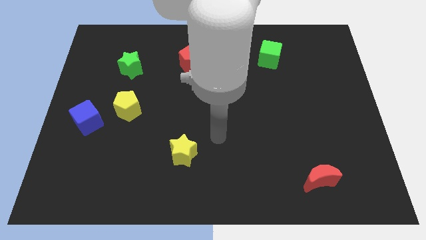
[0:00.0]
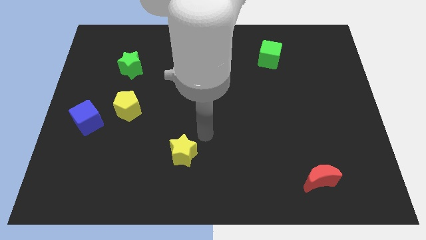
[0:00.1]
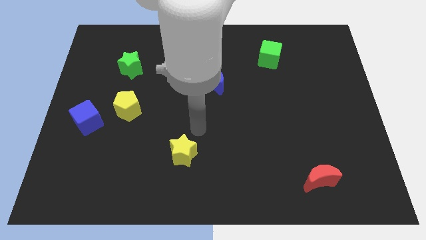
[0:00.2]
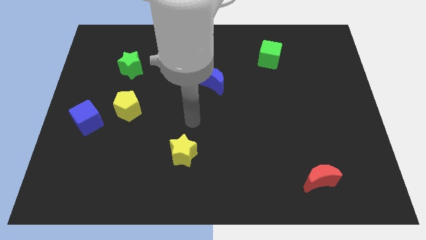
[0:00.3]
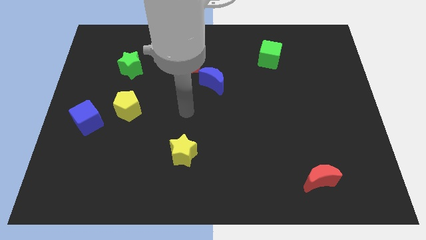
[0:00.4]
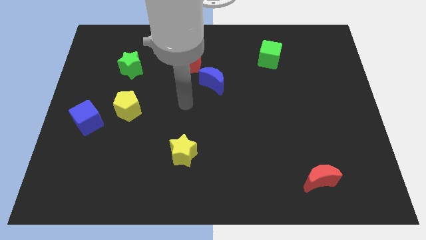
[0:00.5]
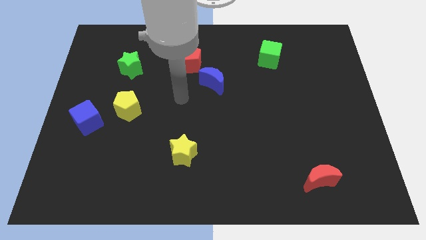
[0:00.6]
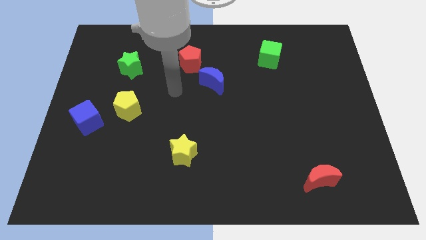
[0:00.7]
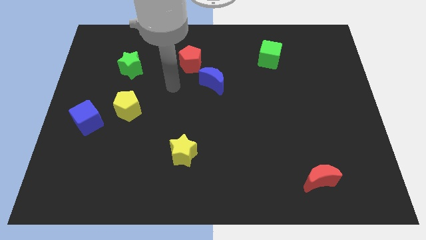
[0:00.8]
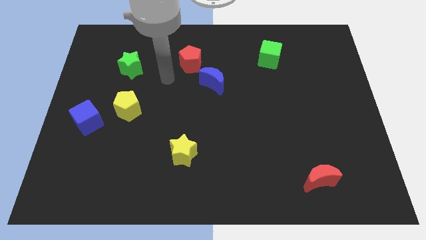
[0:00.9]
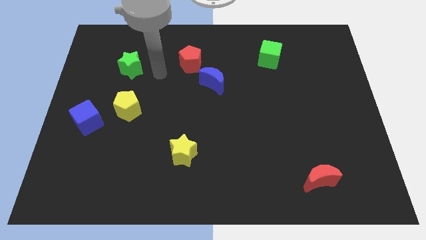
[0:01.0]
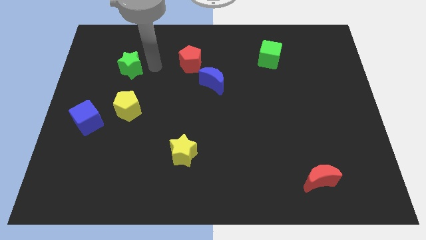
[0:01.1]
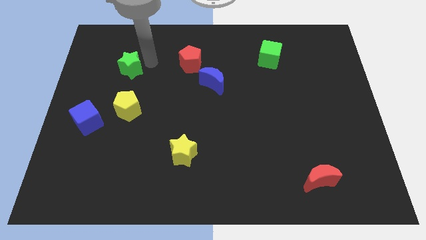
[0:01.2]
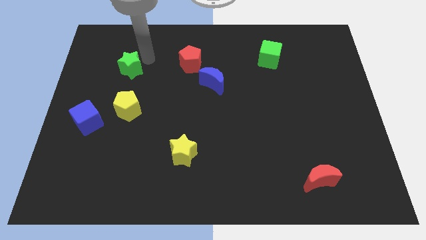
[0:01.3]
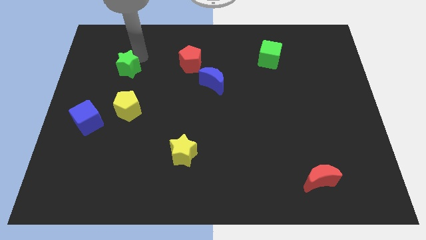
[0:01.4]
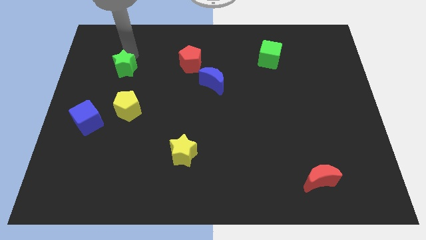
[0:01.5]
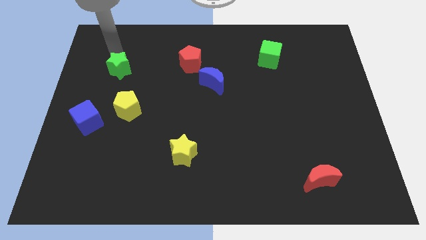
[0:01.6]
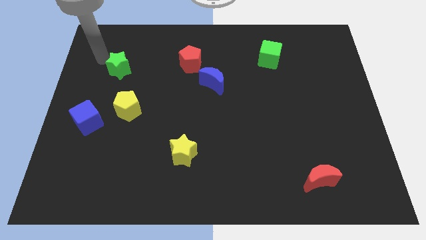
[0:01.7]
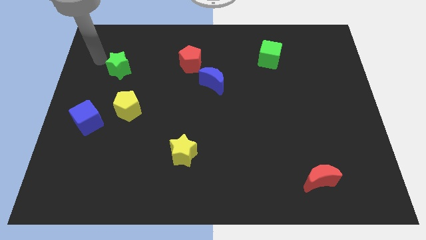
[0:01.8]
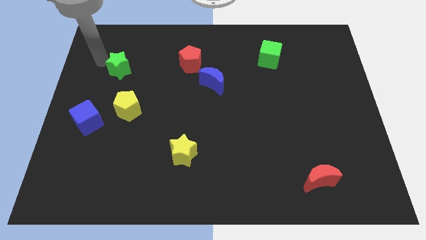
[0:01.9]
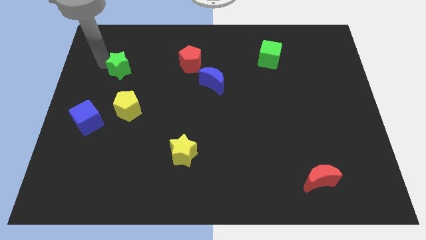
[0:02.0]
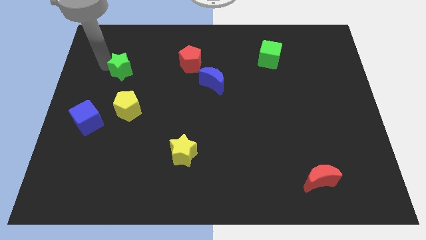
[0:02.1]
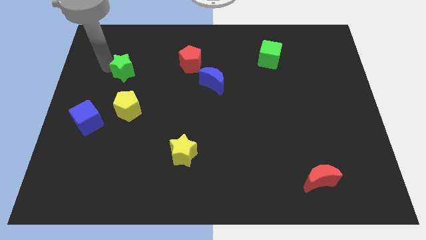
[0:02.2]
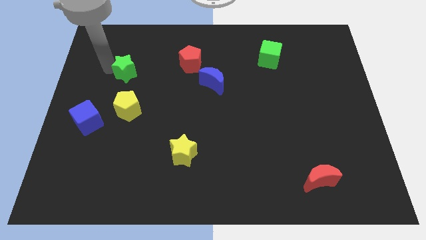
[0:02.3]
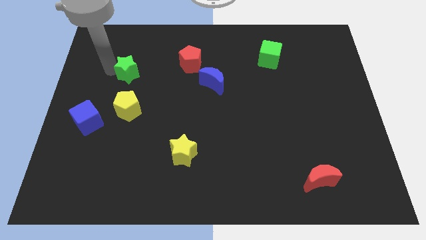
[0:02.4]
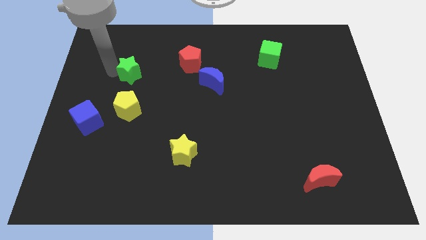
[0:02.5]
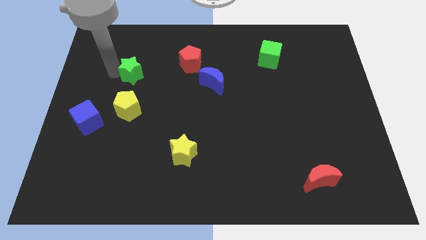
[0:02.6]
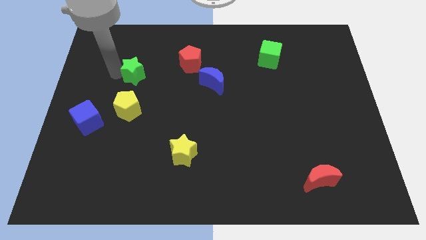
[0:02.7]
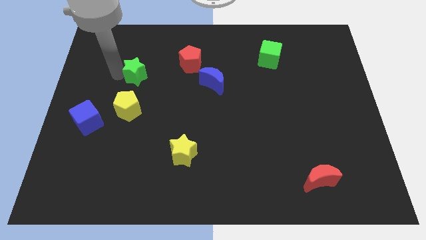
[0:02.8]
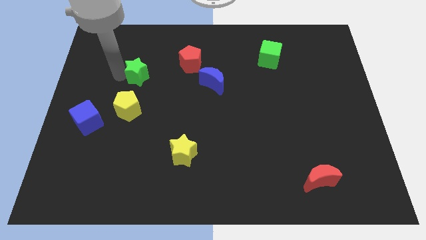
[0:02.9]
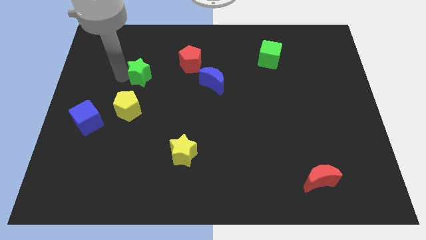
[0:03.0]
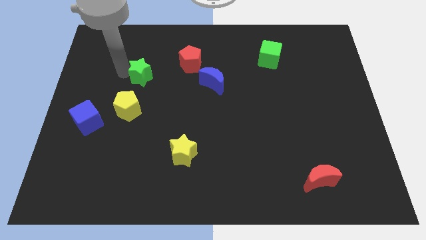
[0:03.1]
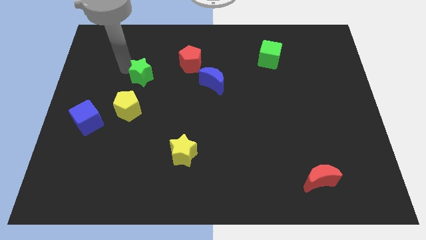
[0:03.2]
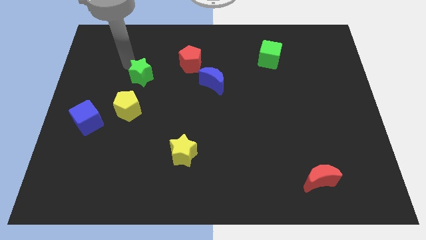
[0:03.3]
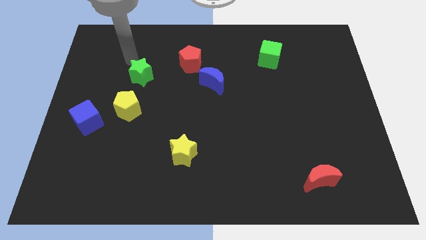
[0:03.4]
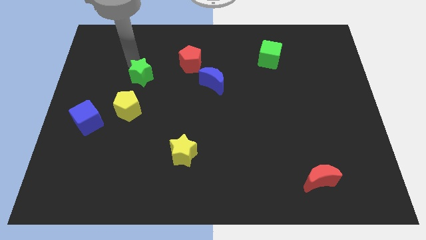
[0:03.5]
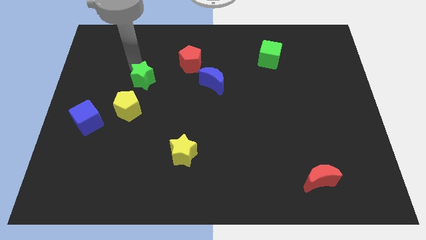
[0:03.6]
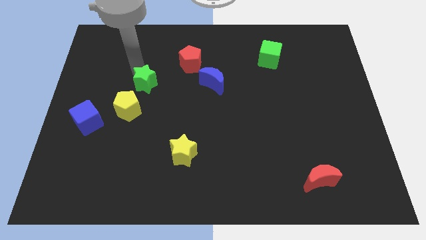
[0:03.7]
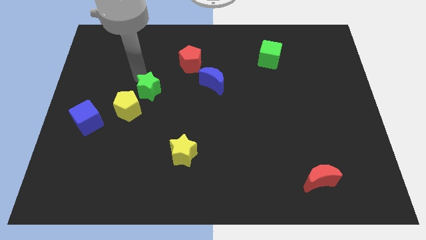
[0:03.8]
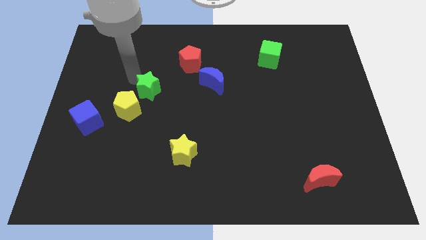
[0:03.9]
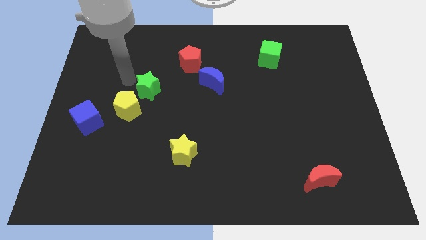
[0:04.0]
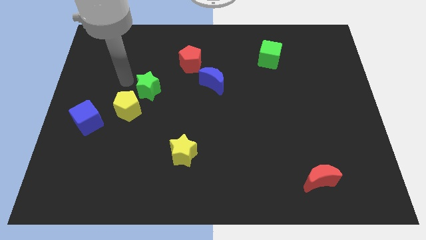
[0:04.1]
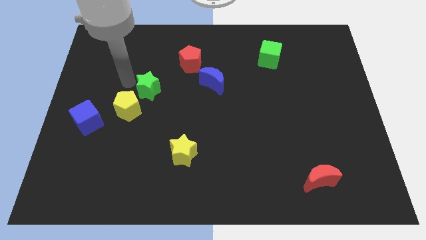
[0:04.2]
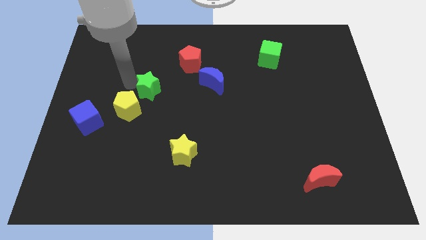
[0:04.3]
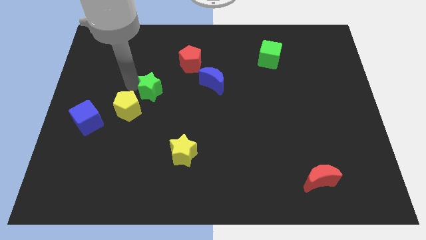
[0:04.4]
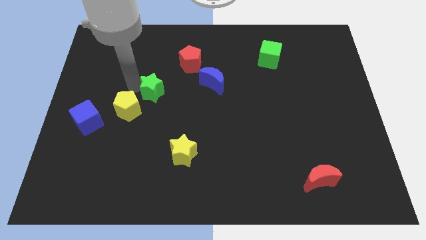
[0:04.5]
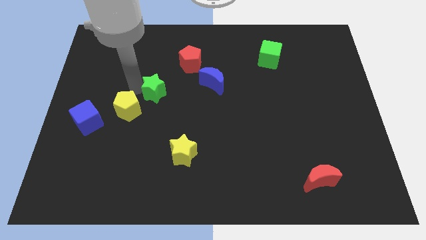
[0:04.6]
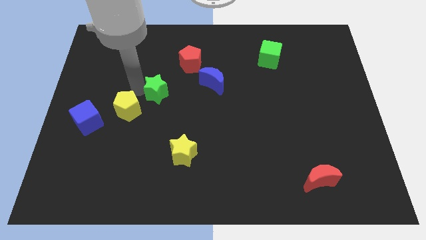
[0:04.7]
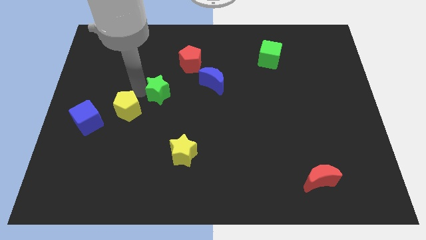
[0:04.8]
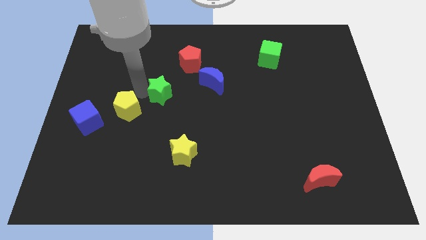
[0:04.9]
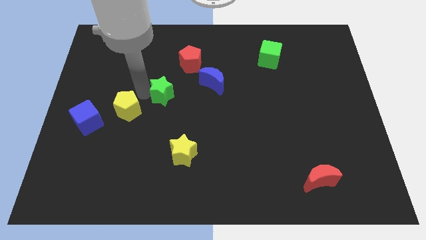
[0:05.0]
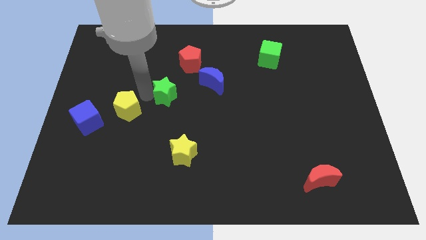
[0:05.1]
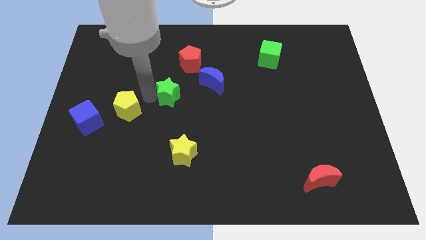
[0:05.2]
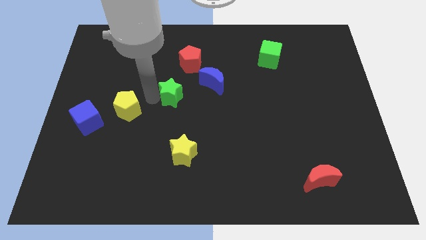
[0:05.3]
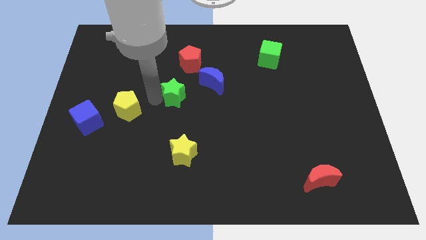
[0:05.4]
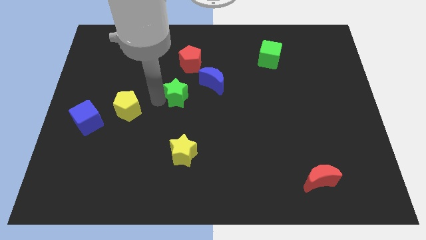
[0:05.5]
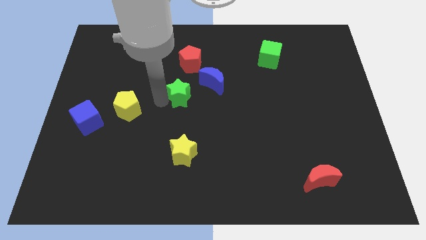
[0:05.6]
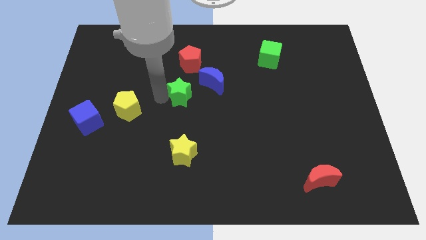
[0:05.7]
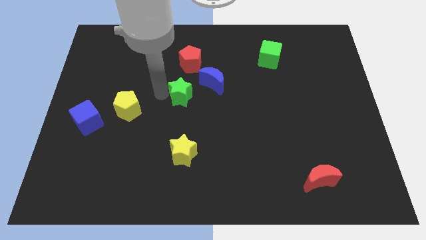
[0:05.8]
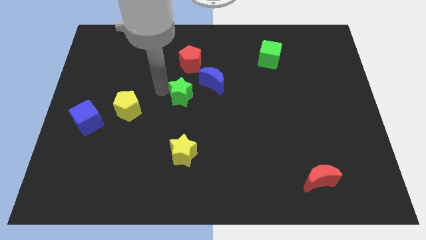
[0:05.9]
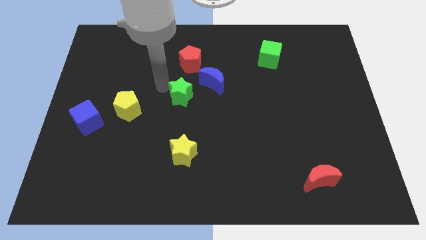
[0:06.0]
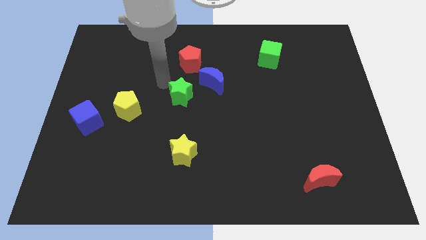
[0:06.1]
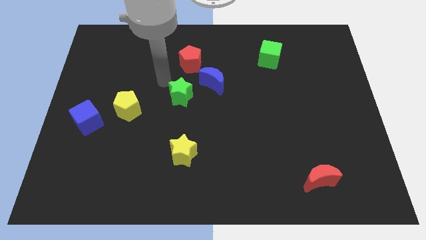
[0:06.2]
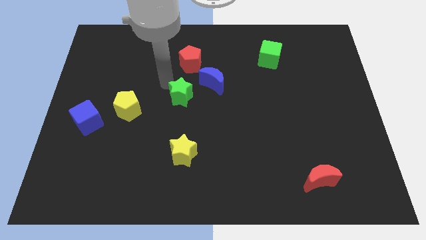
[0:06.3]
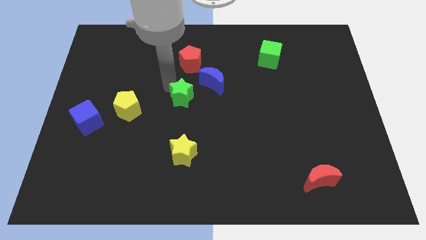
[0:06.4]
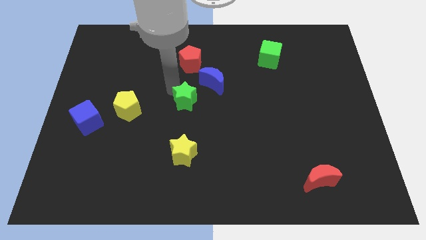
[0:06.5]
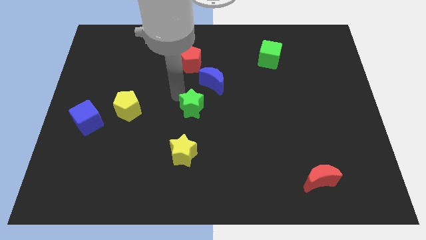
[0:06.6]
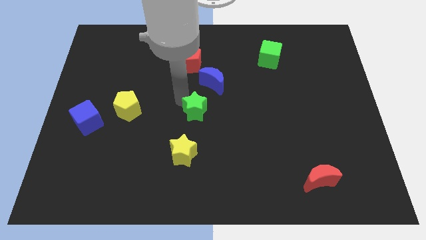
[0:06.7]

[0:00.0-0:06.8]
push the green star to the bottom of the blue moon

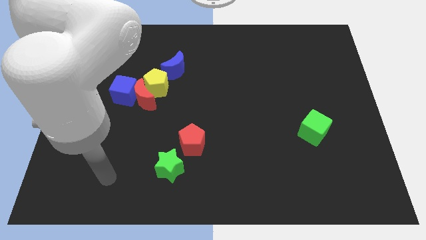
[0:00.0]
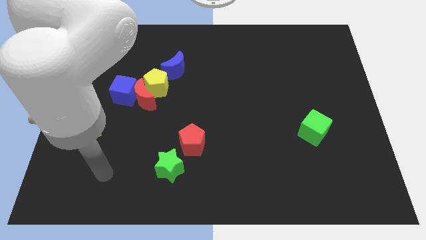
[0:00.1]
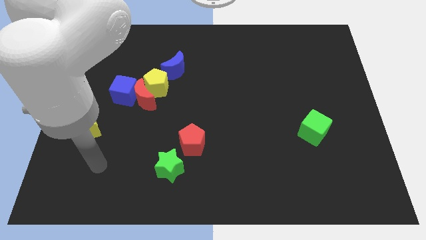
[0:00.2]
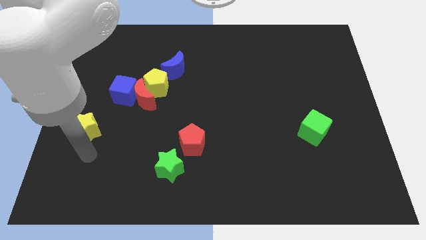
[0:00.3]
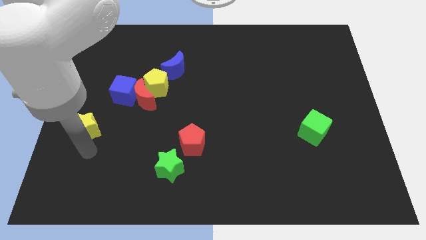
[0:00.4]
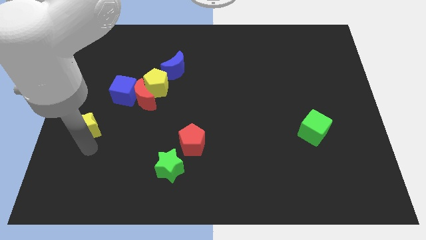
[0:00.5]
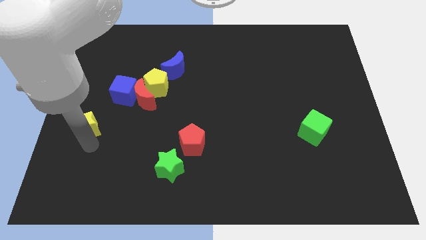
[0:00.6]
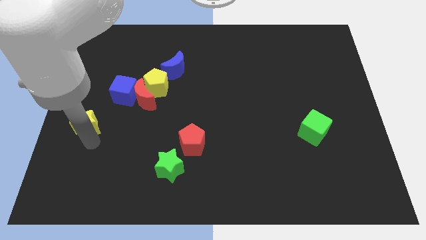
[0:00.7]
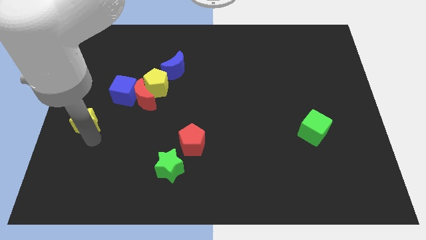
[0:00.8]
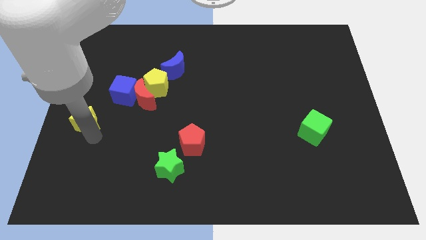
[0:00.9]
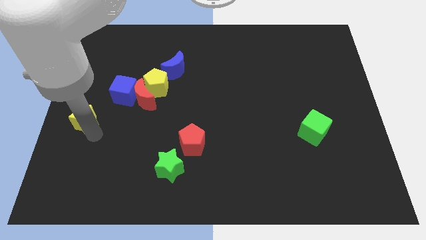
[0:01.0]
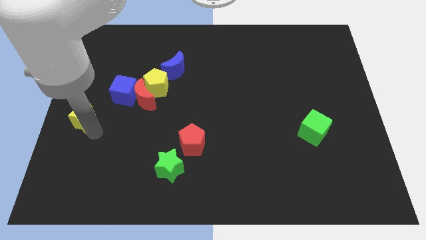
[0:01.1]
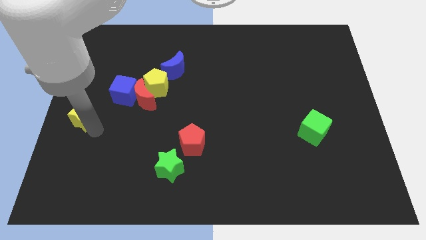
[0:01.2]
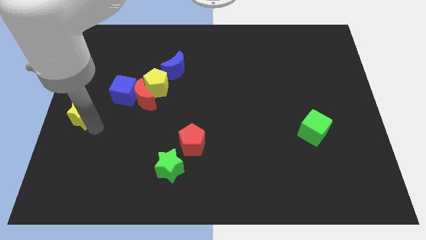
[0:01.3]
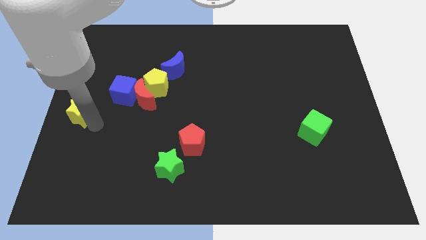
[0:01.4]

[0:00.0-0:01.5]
slide the yellow star to the left side of the red moon
